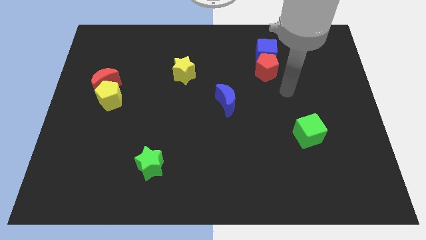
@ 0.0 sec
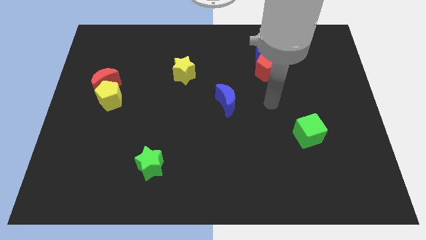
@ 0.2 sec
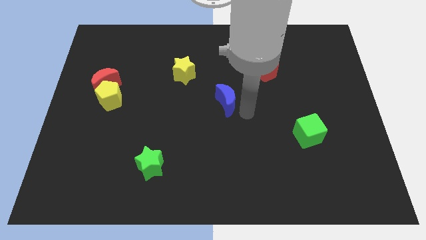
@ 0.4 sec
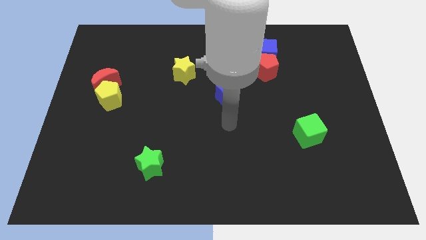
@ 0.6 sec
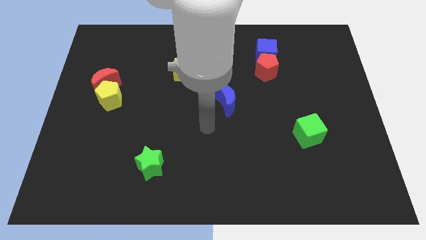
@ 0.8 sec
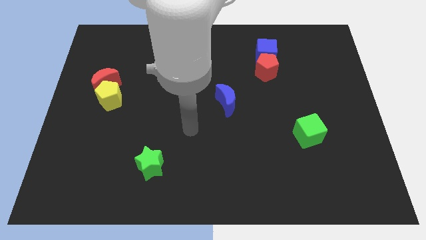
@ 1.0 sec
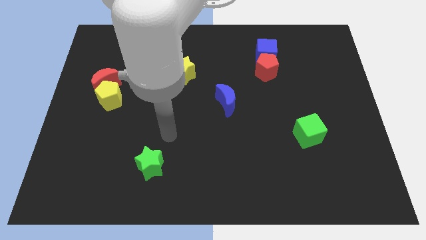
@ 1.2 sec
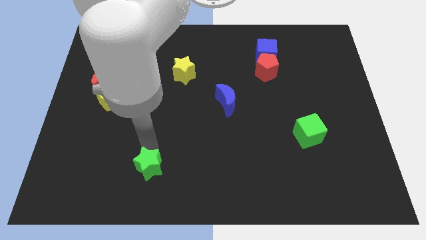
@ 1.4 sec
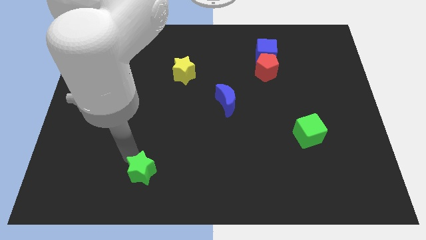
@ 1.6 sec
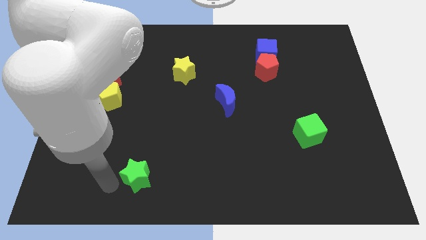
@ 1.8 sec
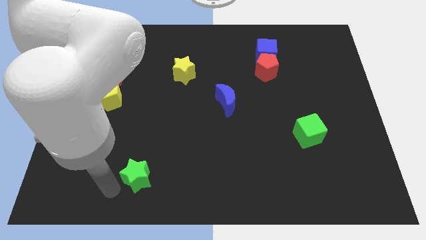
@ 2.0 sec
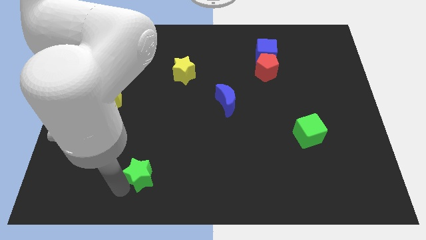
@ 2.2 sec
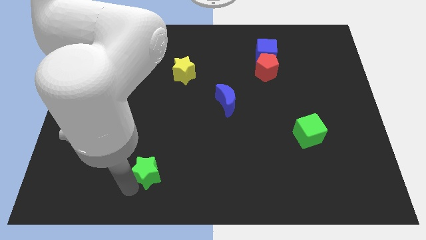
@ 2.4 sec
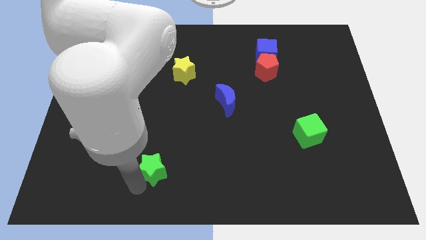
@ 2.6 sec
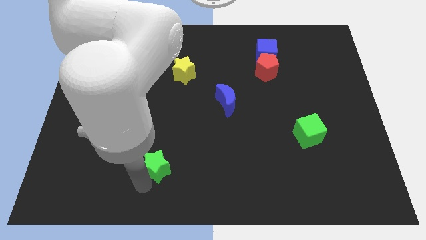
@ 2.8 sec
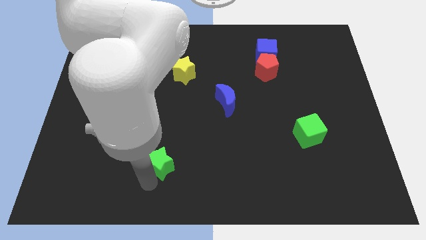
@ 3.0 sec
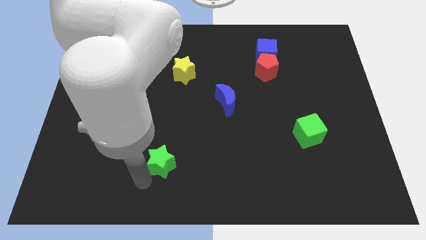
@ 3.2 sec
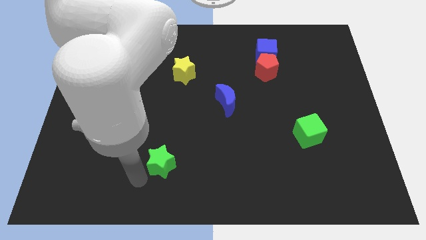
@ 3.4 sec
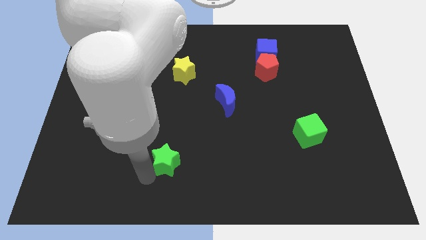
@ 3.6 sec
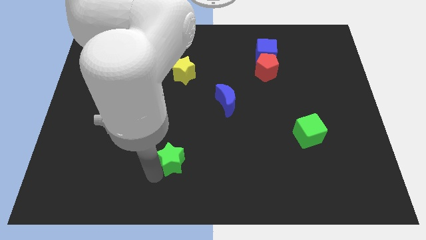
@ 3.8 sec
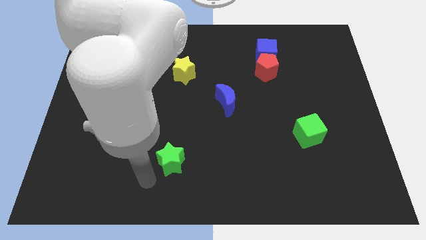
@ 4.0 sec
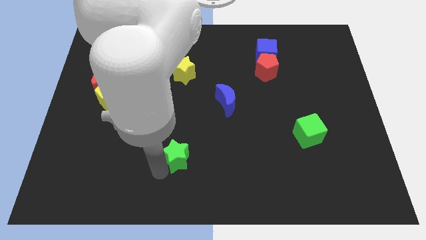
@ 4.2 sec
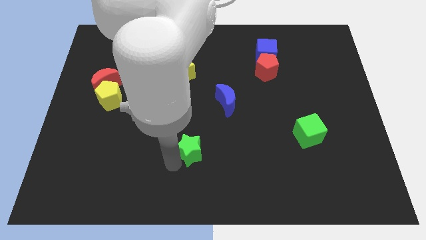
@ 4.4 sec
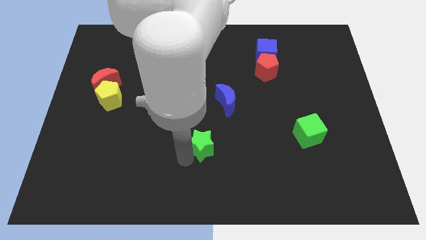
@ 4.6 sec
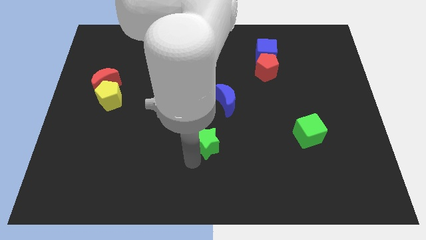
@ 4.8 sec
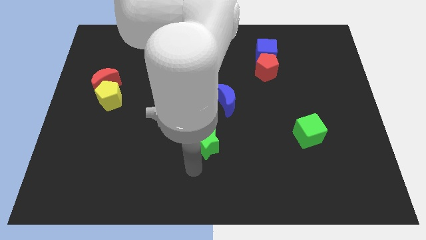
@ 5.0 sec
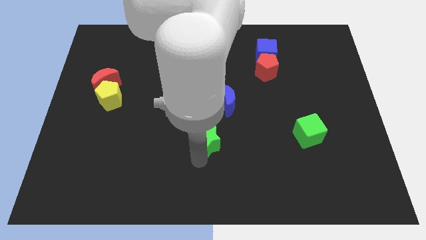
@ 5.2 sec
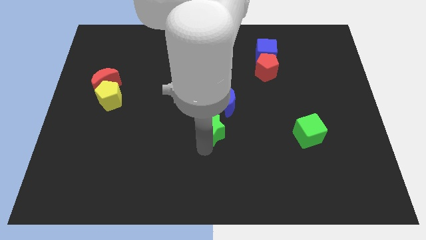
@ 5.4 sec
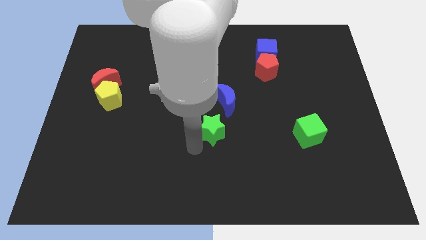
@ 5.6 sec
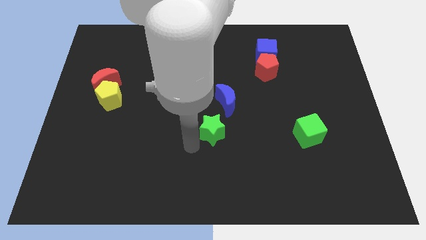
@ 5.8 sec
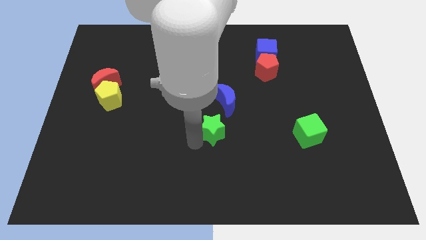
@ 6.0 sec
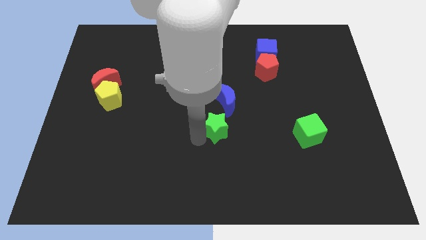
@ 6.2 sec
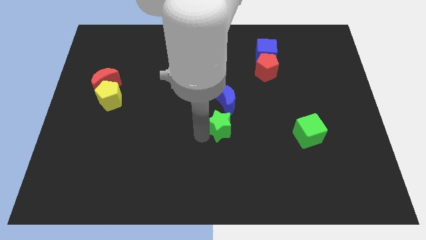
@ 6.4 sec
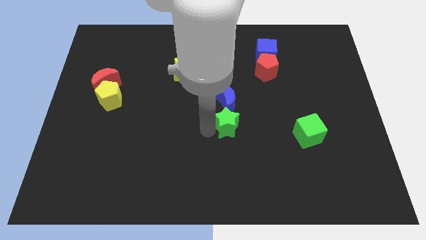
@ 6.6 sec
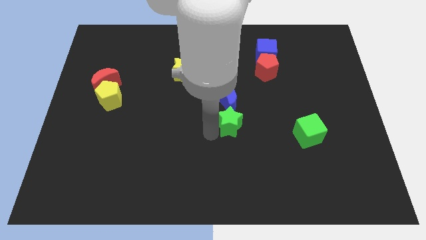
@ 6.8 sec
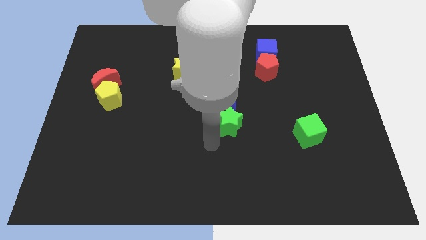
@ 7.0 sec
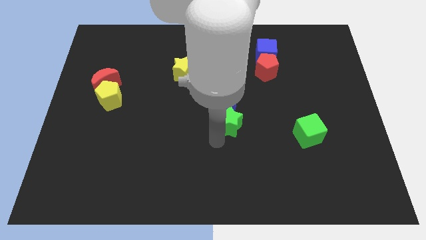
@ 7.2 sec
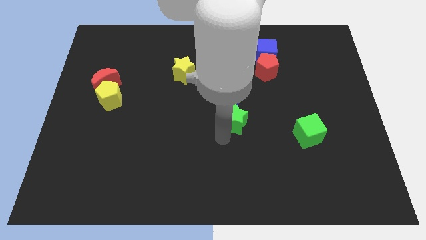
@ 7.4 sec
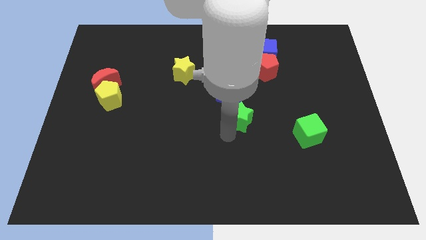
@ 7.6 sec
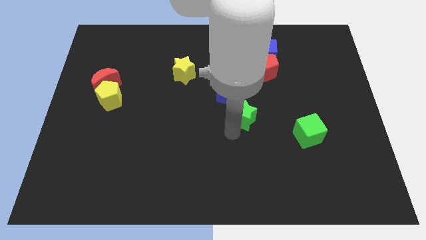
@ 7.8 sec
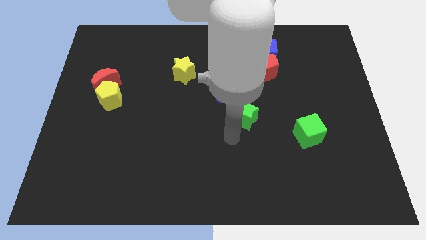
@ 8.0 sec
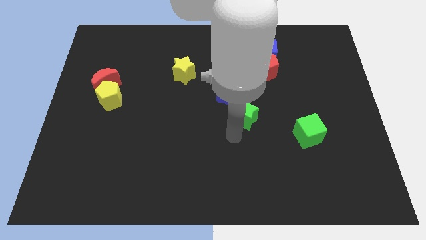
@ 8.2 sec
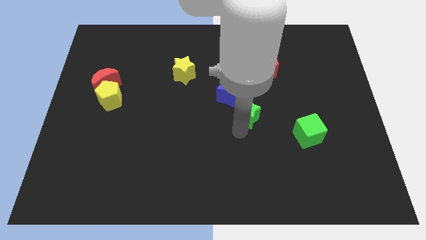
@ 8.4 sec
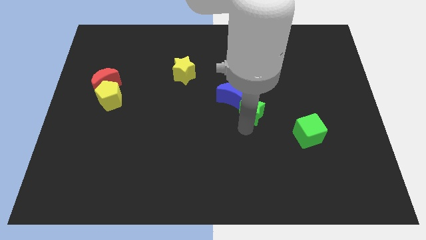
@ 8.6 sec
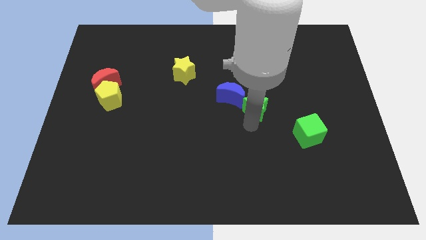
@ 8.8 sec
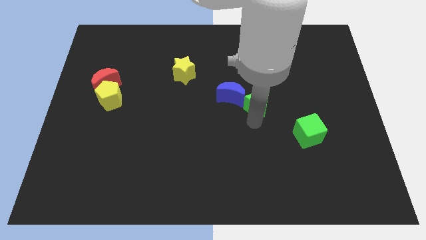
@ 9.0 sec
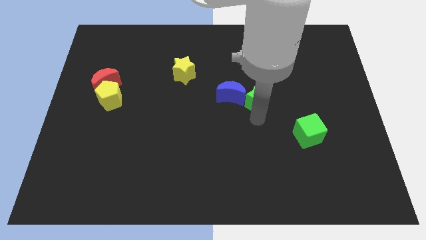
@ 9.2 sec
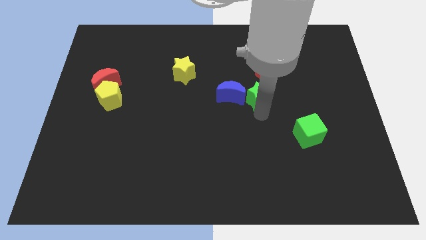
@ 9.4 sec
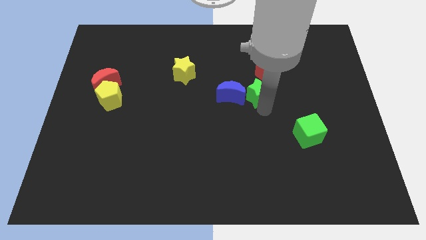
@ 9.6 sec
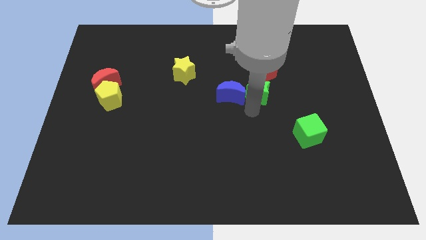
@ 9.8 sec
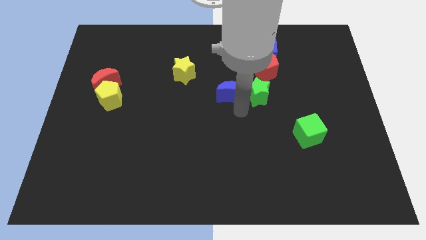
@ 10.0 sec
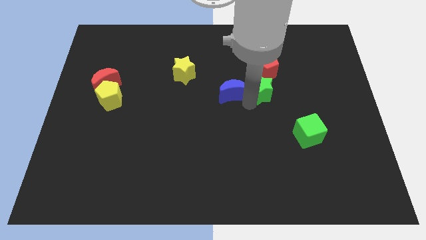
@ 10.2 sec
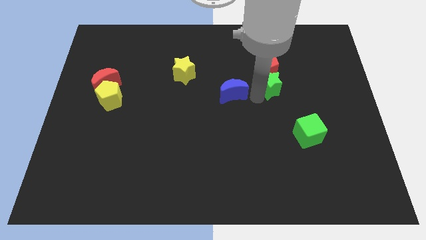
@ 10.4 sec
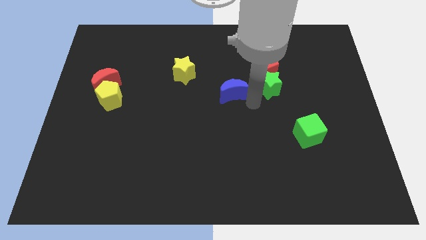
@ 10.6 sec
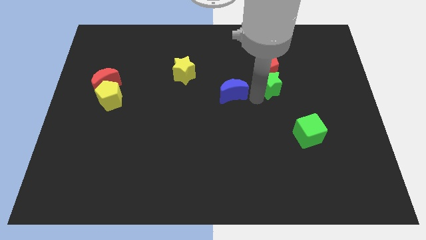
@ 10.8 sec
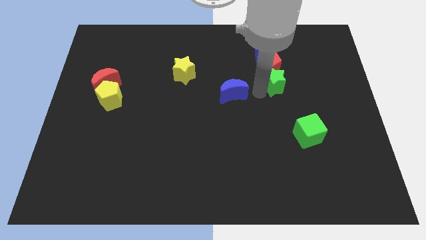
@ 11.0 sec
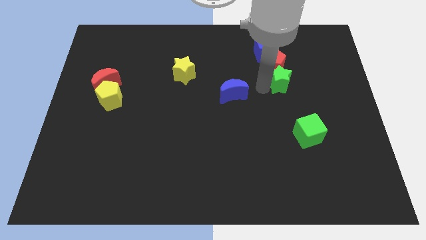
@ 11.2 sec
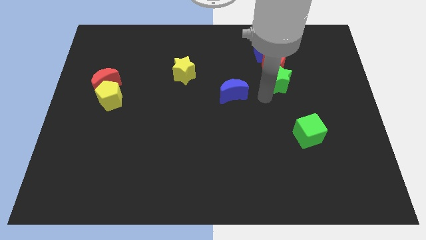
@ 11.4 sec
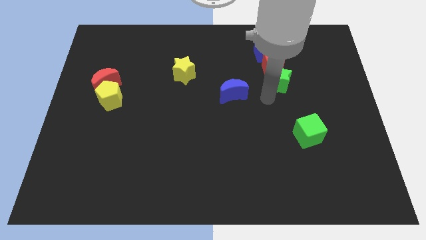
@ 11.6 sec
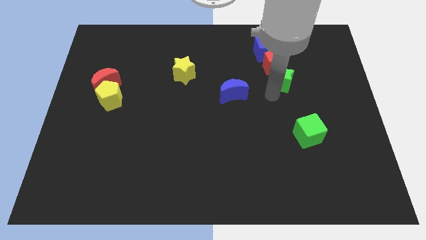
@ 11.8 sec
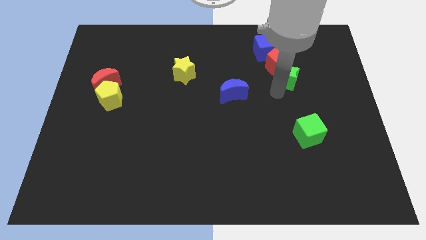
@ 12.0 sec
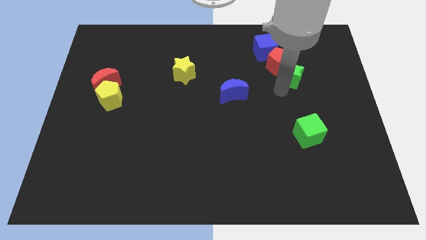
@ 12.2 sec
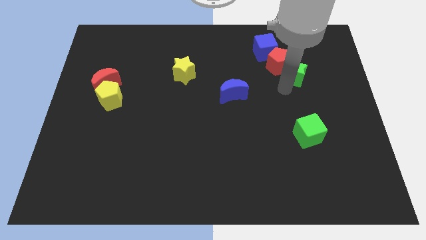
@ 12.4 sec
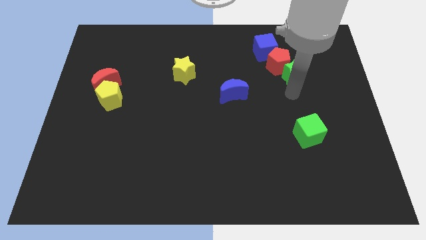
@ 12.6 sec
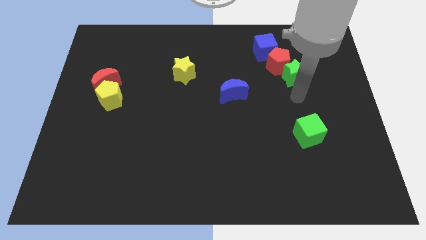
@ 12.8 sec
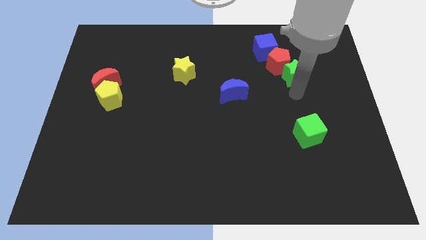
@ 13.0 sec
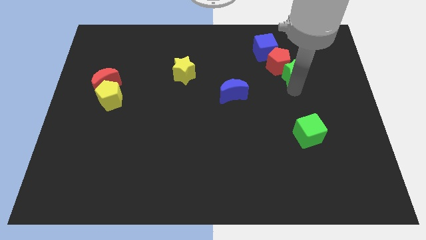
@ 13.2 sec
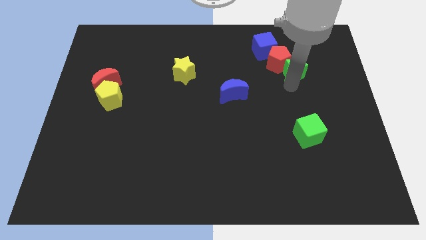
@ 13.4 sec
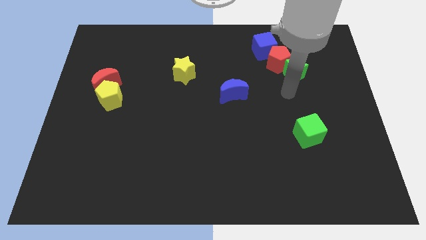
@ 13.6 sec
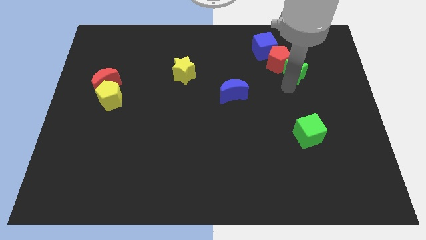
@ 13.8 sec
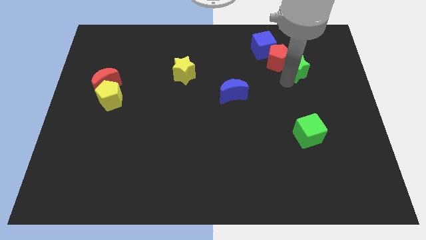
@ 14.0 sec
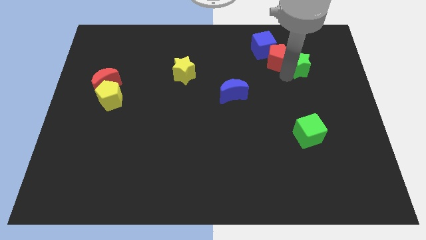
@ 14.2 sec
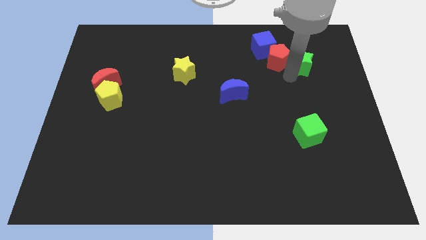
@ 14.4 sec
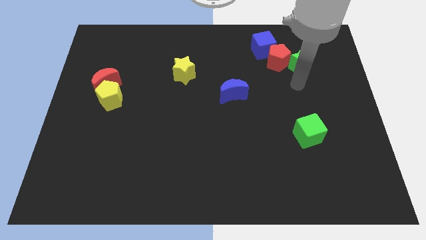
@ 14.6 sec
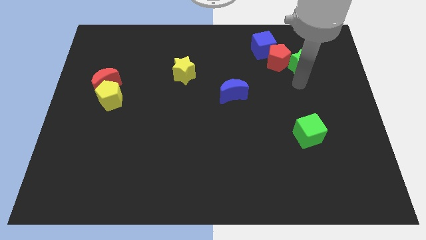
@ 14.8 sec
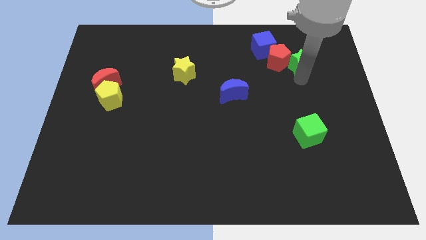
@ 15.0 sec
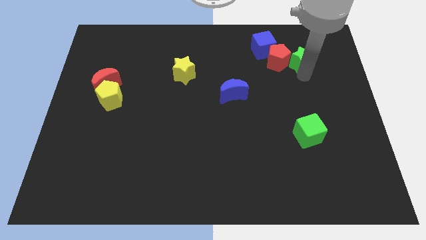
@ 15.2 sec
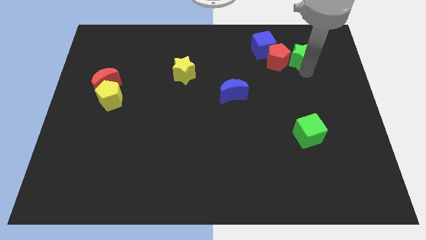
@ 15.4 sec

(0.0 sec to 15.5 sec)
slide the green star right of the blue cube
